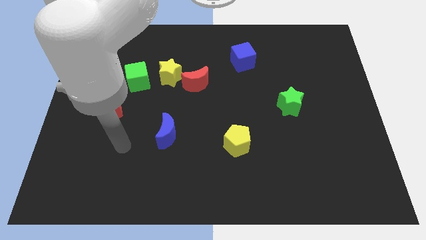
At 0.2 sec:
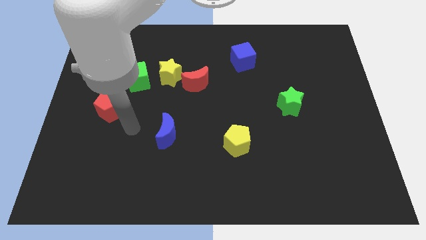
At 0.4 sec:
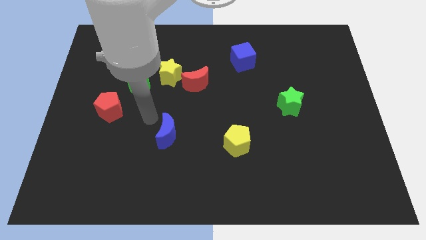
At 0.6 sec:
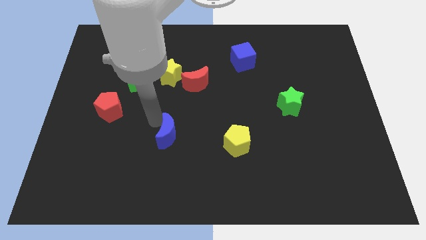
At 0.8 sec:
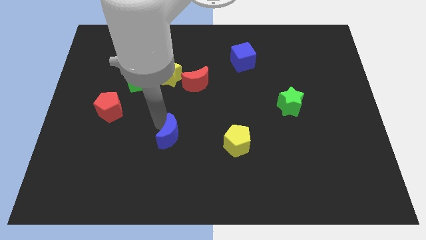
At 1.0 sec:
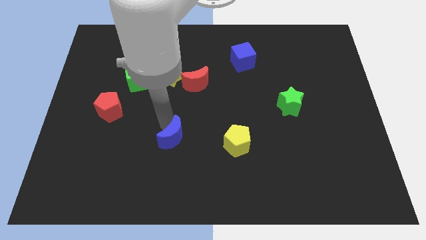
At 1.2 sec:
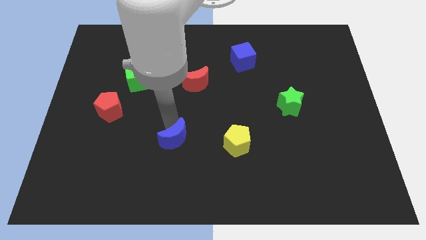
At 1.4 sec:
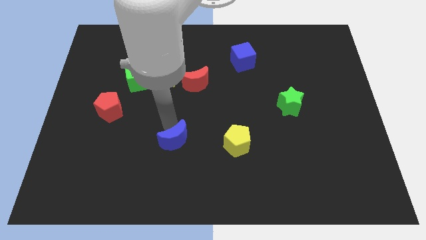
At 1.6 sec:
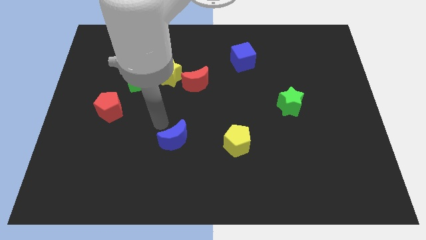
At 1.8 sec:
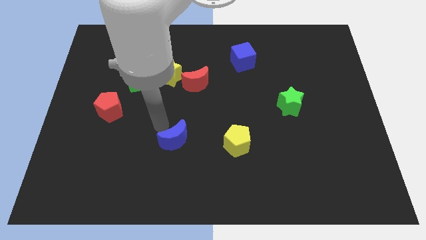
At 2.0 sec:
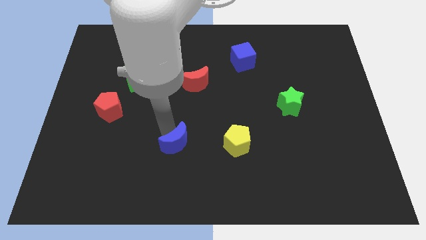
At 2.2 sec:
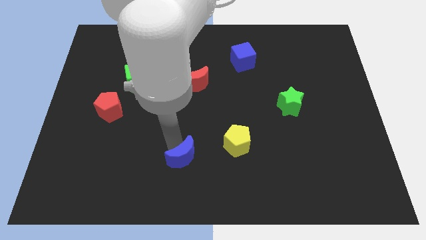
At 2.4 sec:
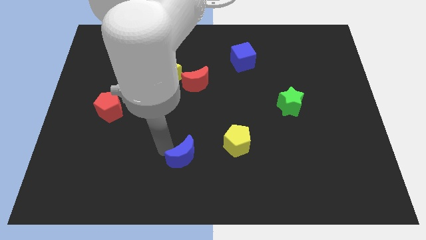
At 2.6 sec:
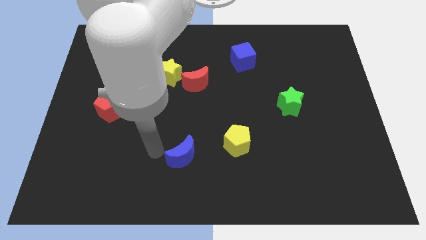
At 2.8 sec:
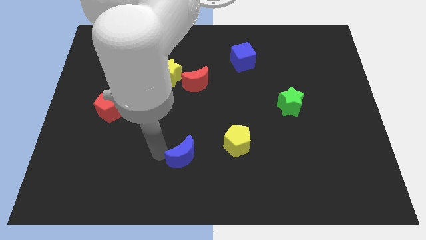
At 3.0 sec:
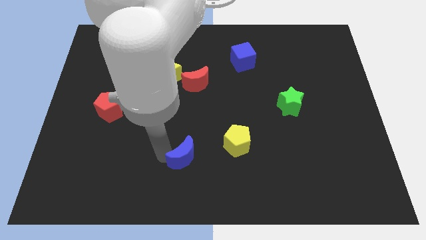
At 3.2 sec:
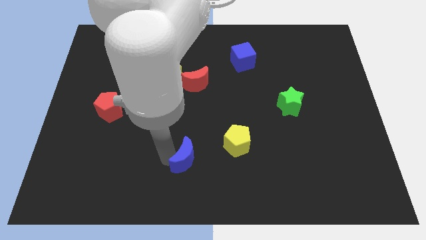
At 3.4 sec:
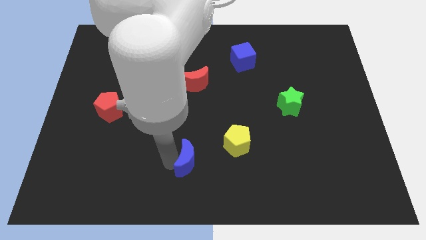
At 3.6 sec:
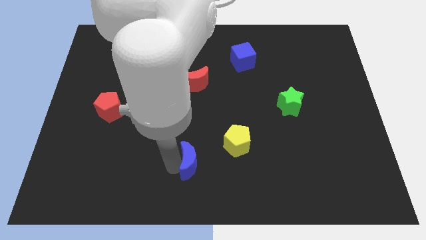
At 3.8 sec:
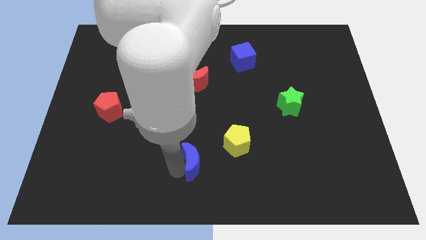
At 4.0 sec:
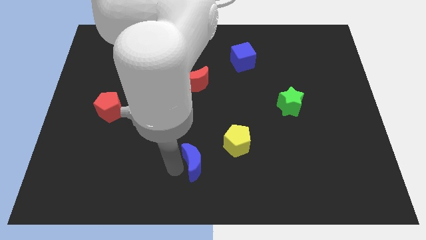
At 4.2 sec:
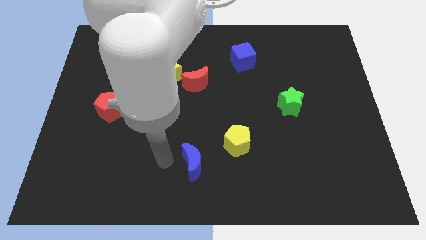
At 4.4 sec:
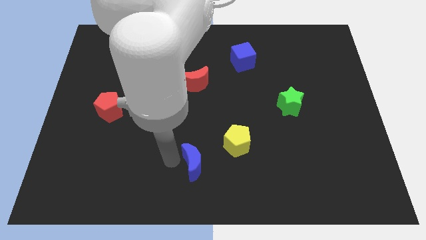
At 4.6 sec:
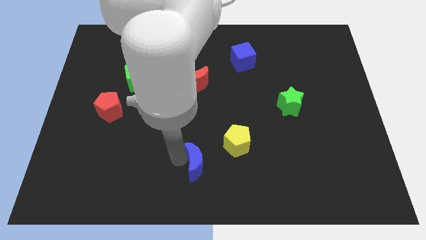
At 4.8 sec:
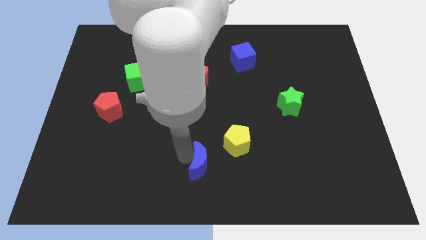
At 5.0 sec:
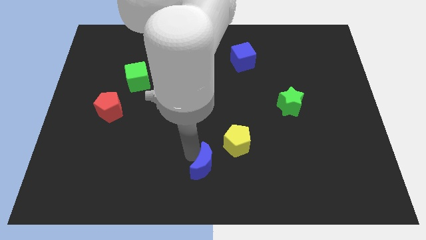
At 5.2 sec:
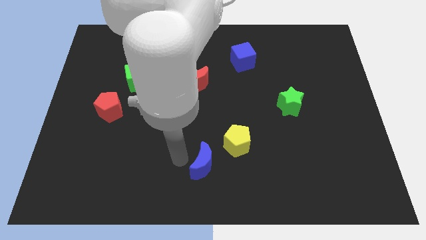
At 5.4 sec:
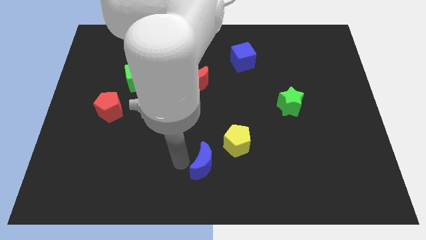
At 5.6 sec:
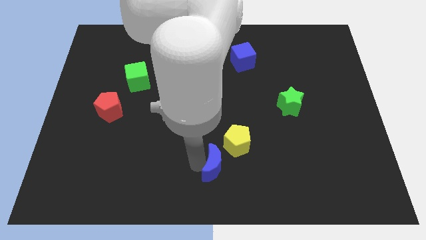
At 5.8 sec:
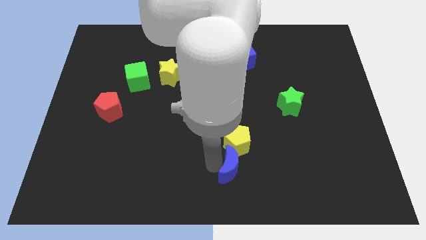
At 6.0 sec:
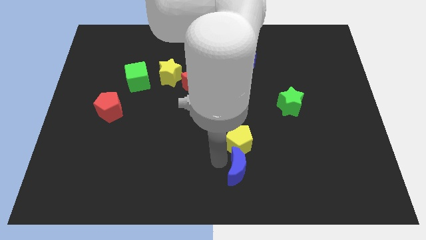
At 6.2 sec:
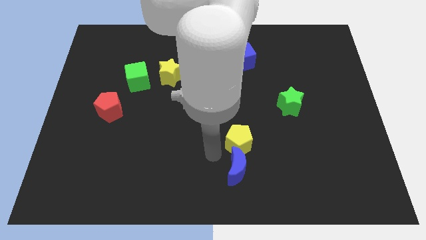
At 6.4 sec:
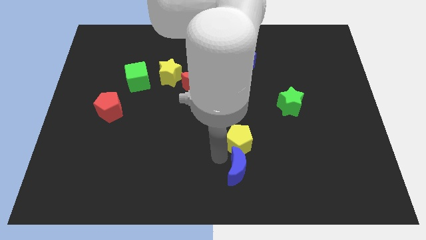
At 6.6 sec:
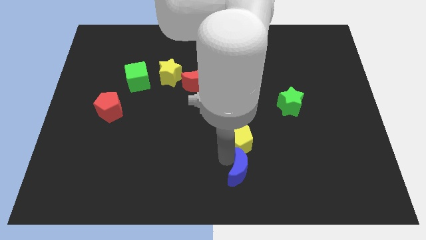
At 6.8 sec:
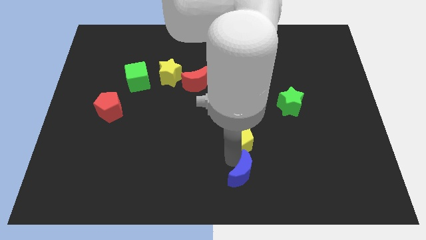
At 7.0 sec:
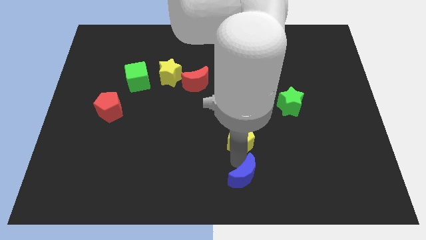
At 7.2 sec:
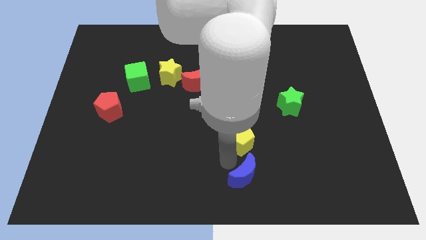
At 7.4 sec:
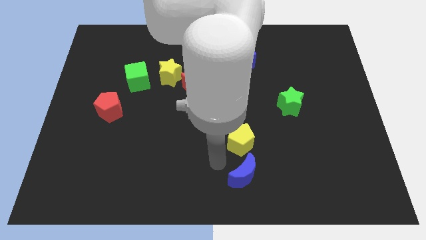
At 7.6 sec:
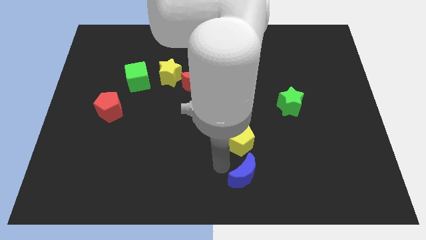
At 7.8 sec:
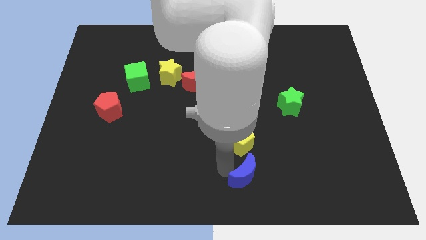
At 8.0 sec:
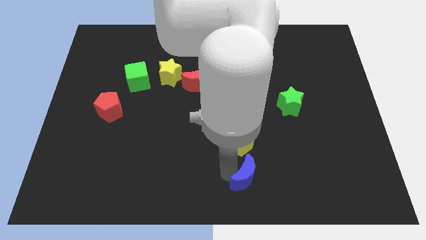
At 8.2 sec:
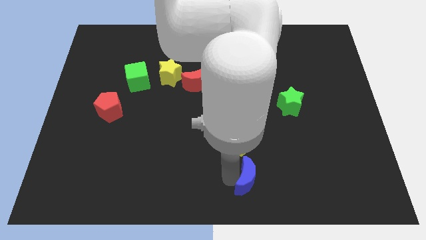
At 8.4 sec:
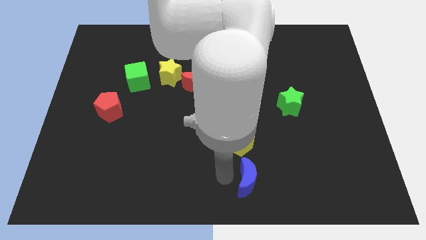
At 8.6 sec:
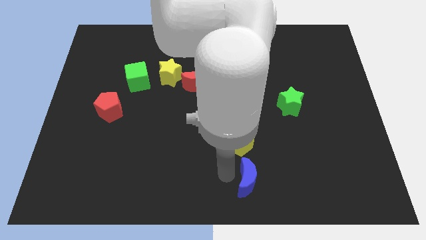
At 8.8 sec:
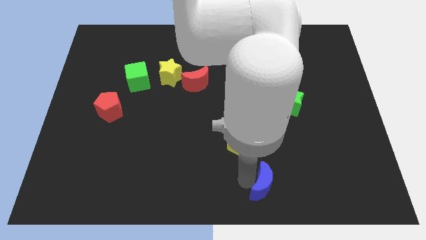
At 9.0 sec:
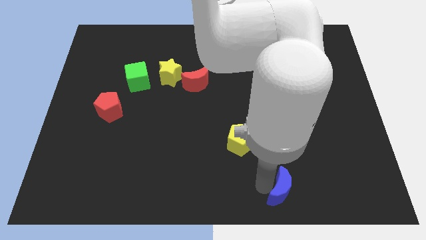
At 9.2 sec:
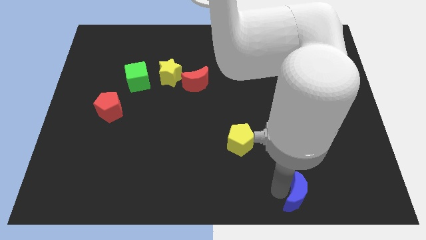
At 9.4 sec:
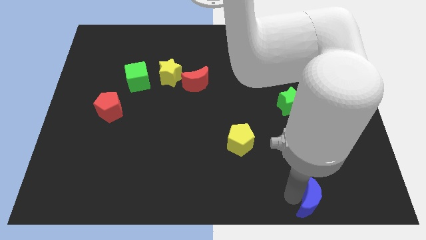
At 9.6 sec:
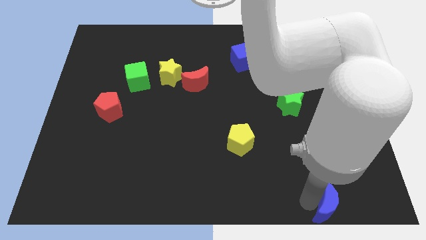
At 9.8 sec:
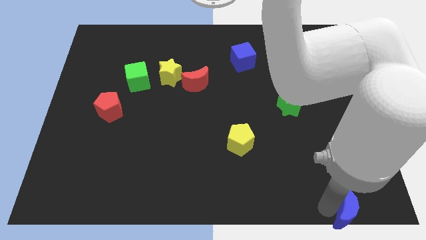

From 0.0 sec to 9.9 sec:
push the blue moon to the bottom right

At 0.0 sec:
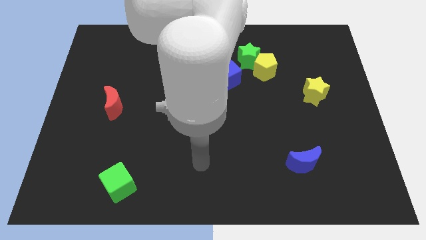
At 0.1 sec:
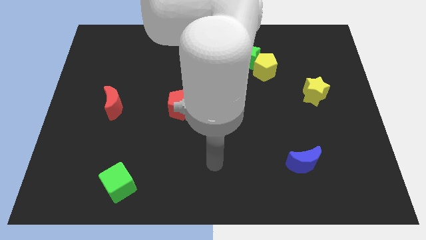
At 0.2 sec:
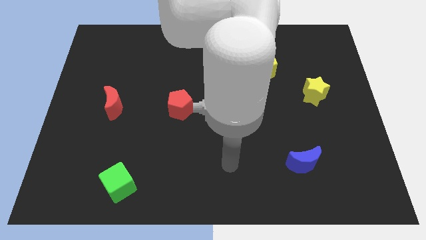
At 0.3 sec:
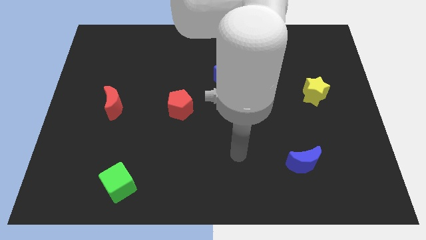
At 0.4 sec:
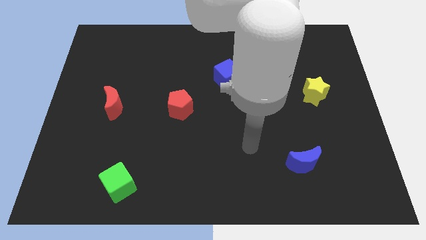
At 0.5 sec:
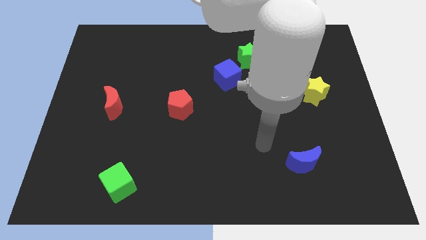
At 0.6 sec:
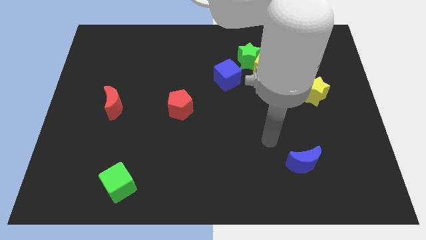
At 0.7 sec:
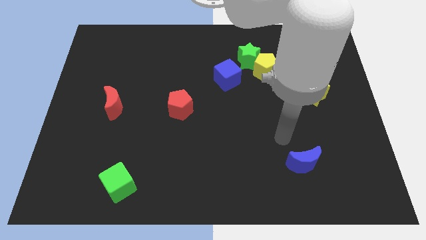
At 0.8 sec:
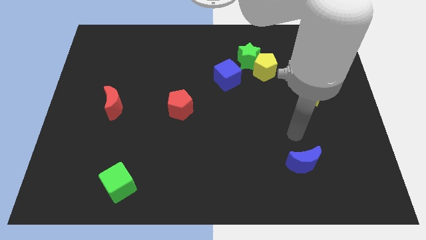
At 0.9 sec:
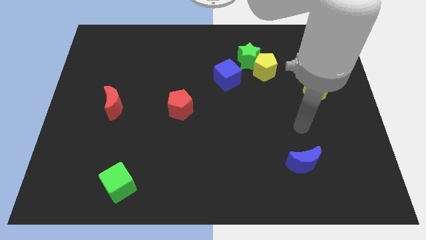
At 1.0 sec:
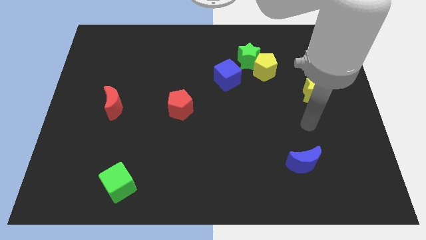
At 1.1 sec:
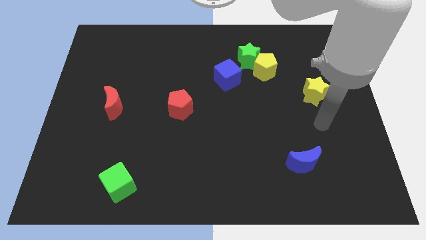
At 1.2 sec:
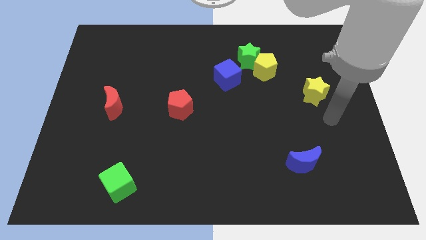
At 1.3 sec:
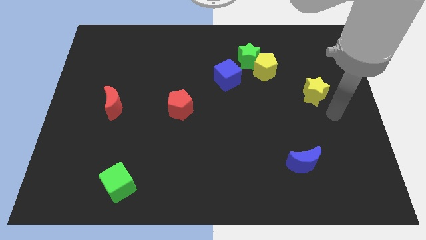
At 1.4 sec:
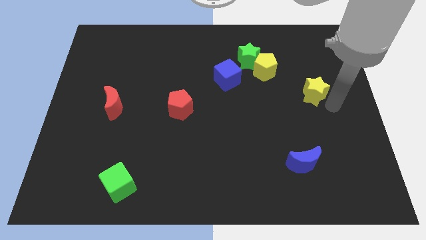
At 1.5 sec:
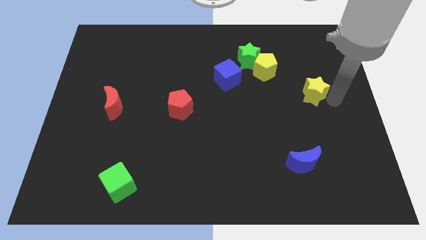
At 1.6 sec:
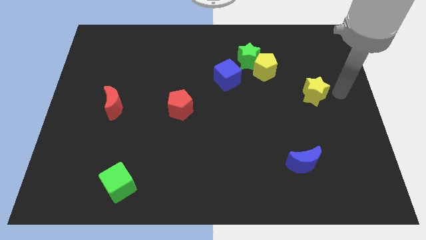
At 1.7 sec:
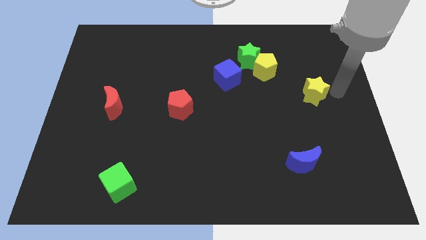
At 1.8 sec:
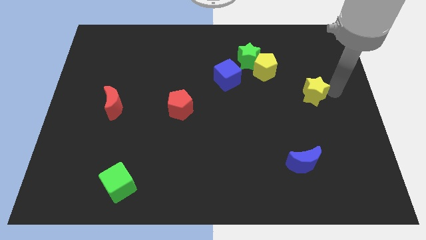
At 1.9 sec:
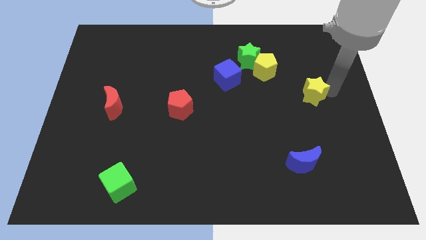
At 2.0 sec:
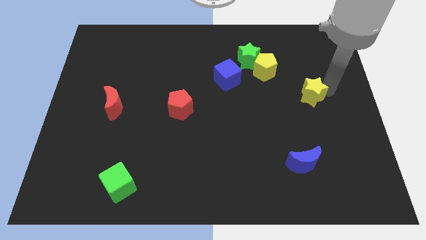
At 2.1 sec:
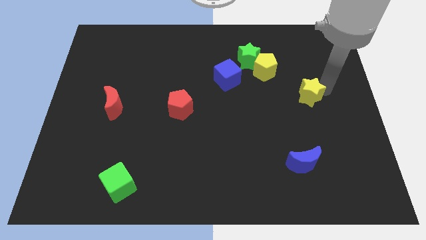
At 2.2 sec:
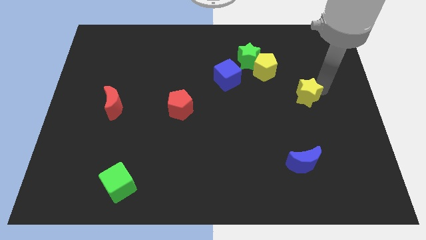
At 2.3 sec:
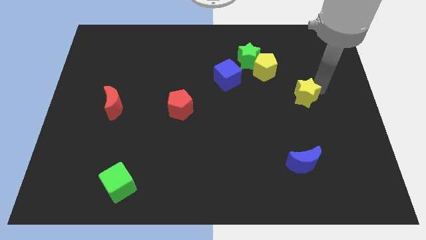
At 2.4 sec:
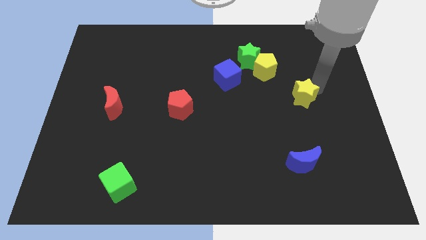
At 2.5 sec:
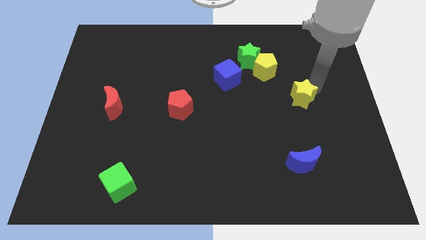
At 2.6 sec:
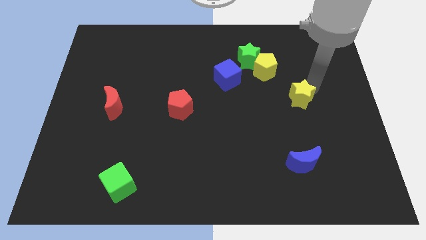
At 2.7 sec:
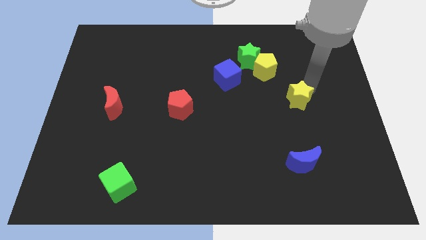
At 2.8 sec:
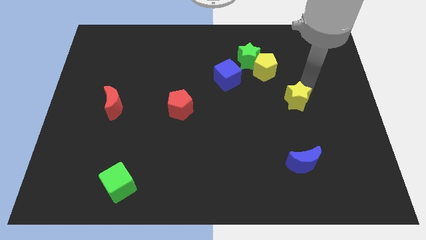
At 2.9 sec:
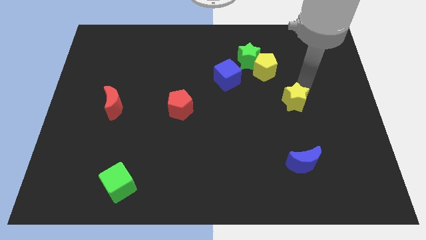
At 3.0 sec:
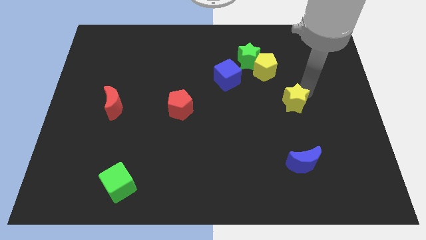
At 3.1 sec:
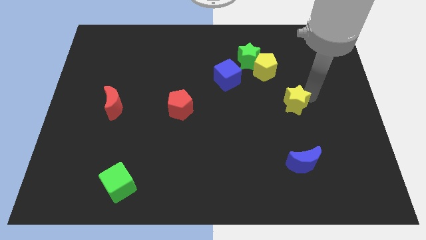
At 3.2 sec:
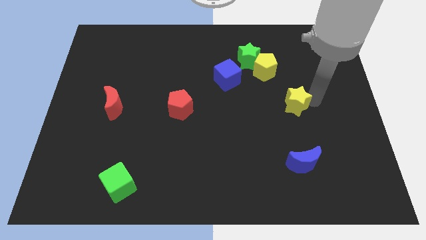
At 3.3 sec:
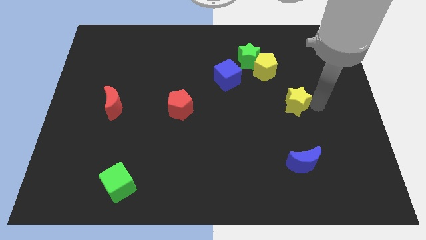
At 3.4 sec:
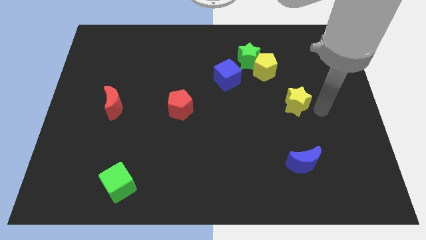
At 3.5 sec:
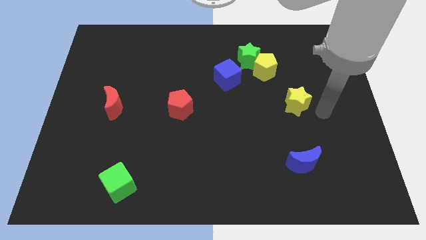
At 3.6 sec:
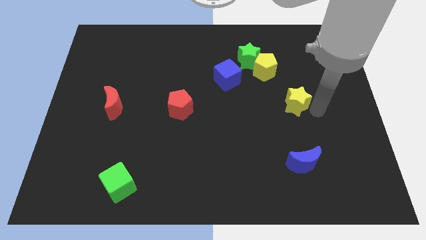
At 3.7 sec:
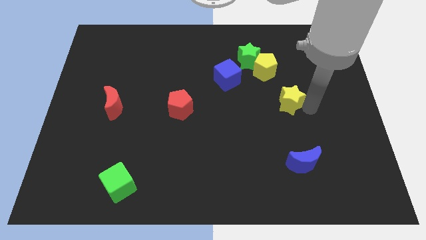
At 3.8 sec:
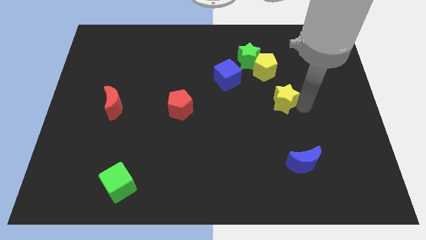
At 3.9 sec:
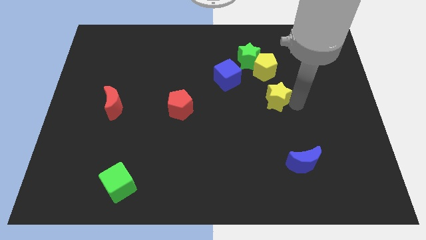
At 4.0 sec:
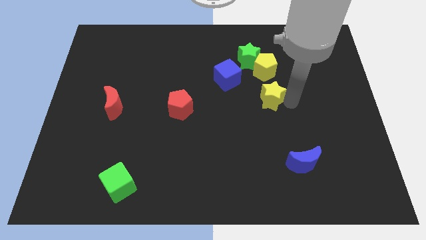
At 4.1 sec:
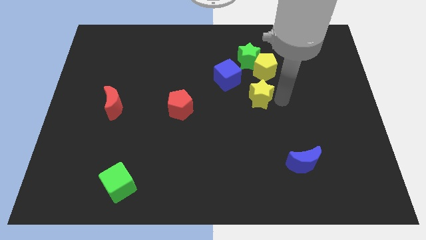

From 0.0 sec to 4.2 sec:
slide the yellow star to the center of the board
